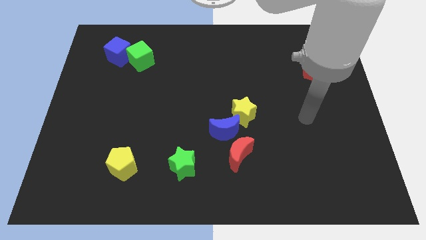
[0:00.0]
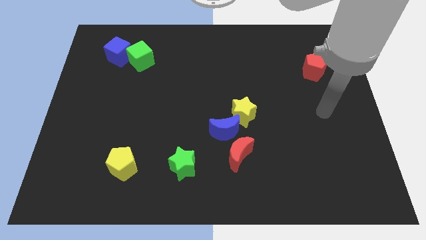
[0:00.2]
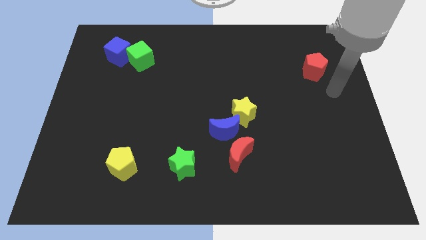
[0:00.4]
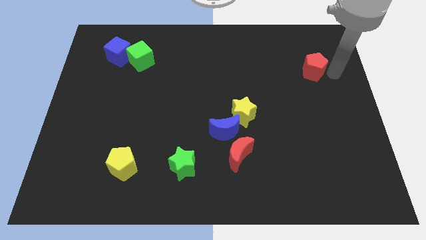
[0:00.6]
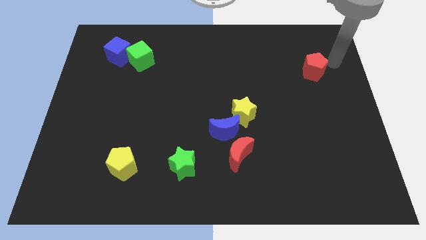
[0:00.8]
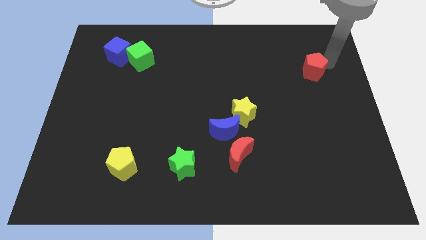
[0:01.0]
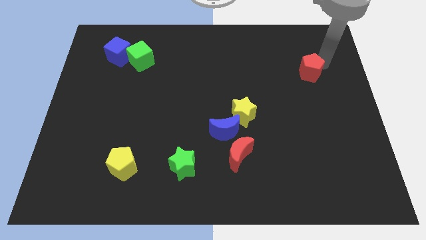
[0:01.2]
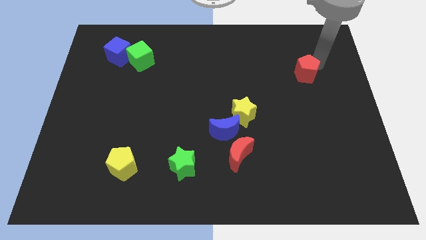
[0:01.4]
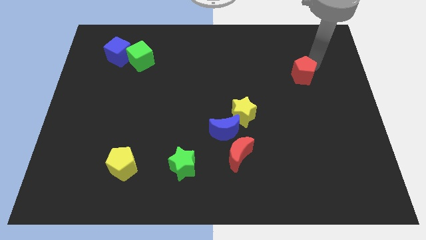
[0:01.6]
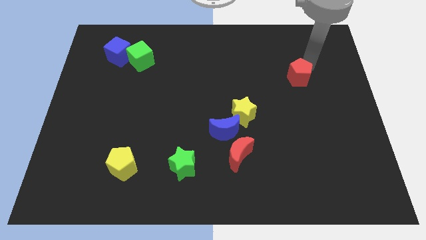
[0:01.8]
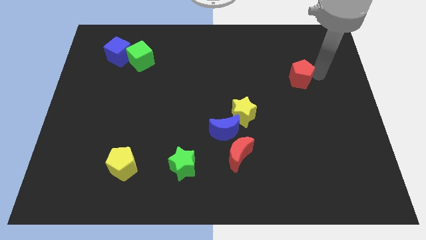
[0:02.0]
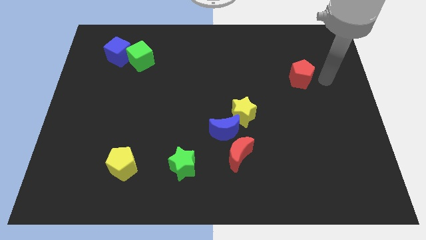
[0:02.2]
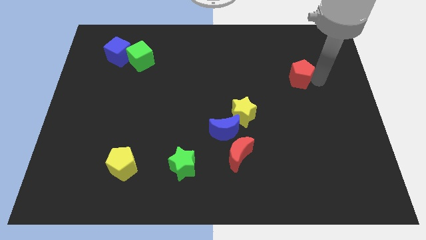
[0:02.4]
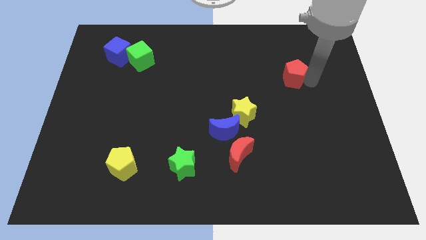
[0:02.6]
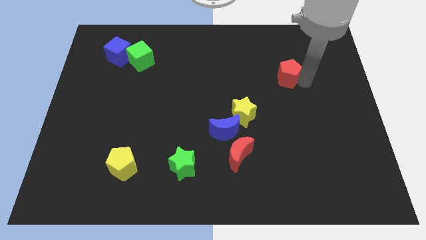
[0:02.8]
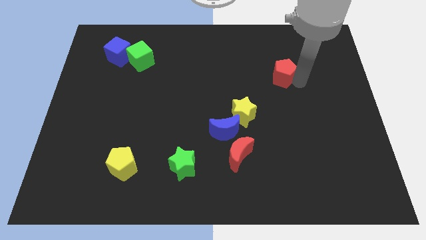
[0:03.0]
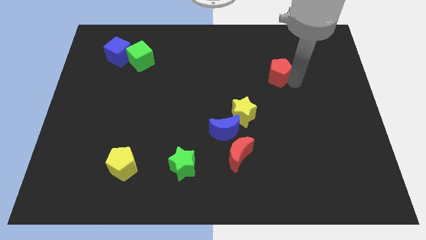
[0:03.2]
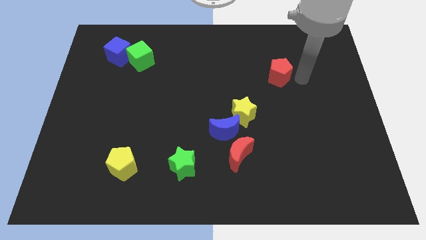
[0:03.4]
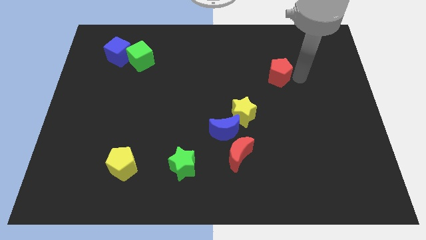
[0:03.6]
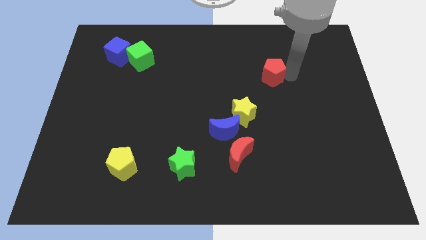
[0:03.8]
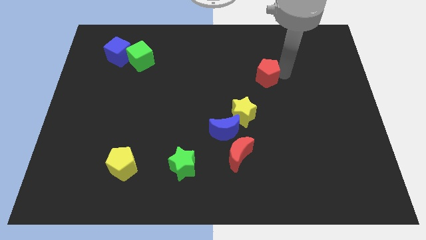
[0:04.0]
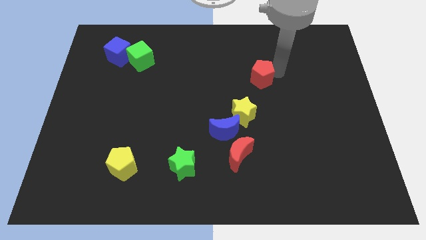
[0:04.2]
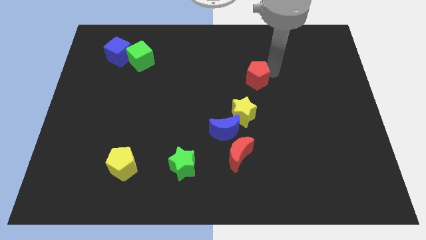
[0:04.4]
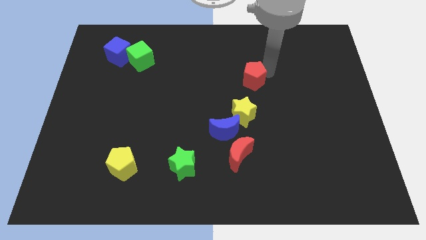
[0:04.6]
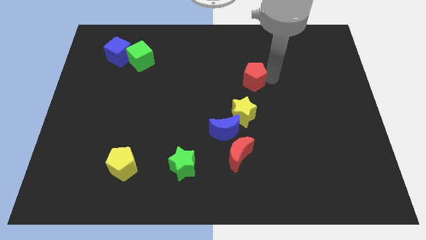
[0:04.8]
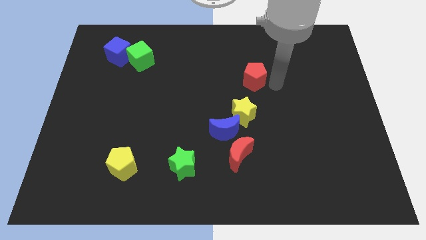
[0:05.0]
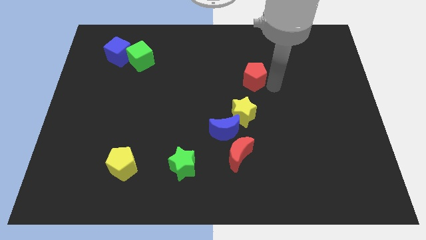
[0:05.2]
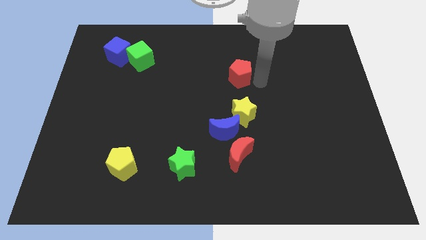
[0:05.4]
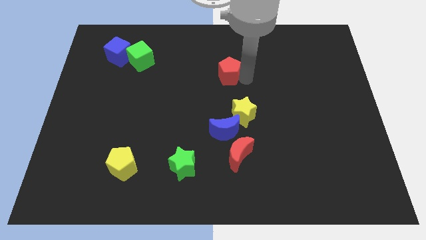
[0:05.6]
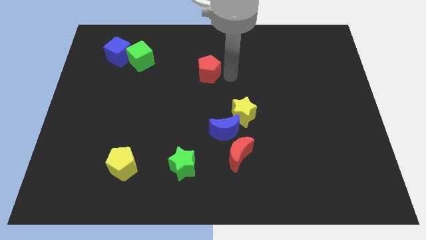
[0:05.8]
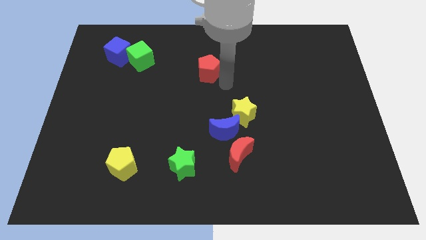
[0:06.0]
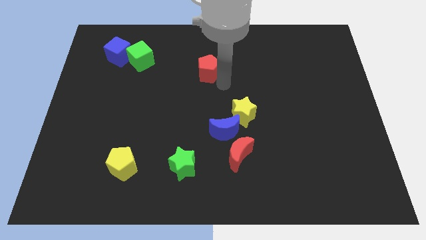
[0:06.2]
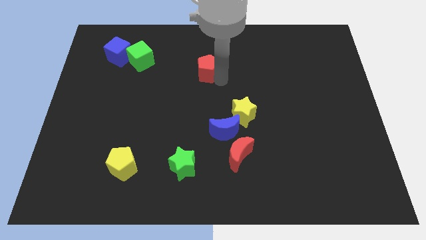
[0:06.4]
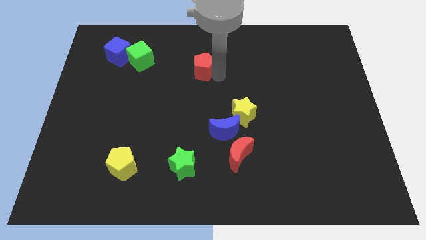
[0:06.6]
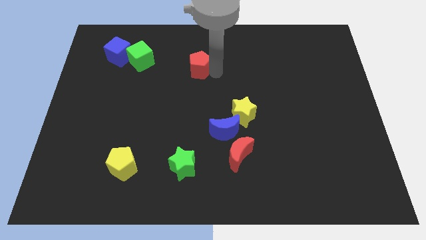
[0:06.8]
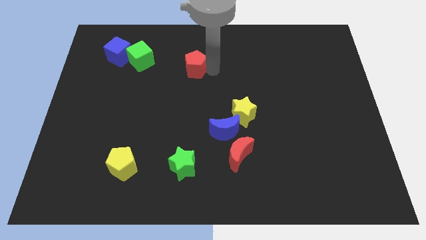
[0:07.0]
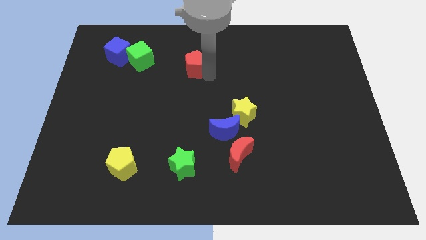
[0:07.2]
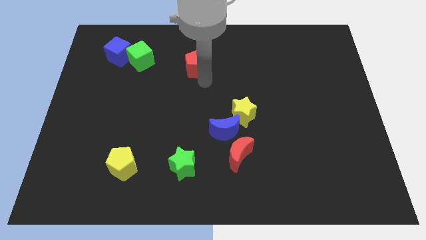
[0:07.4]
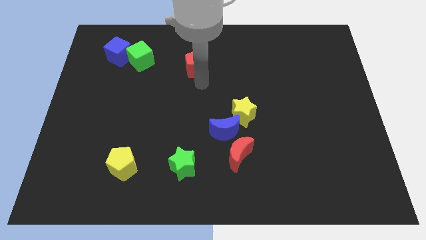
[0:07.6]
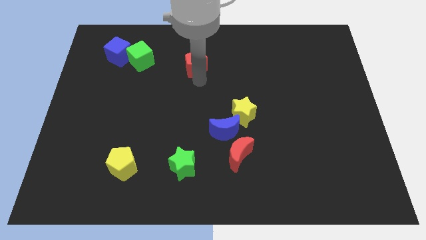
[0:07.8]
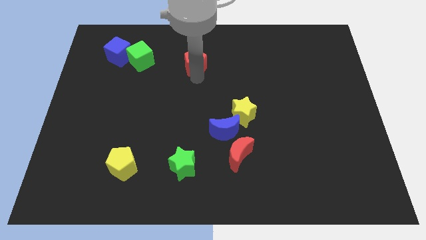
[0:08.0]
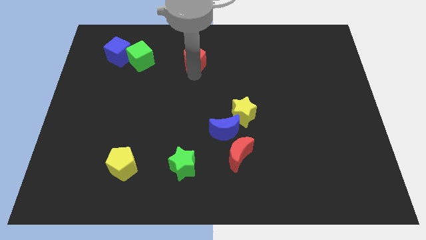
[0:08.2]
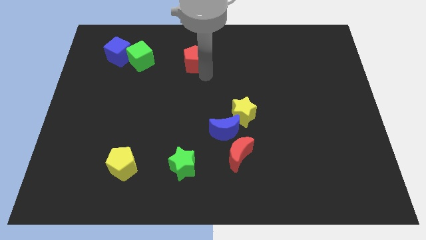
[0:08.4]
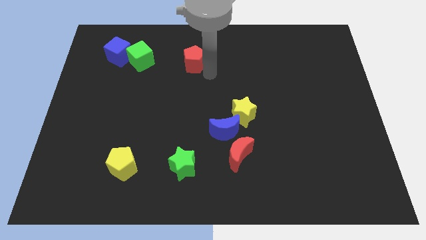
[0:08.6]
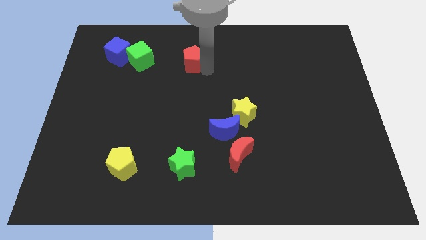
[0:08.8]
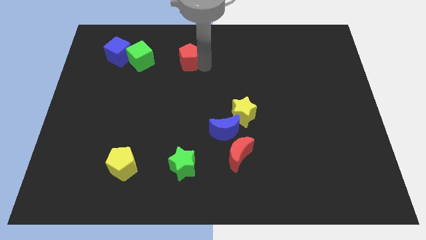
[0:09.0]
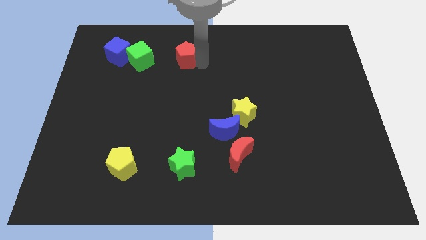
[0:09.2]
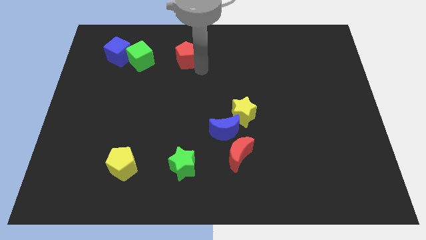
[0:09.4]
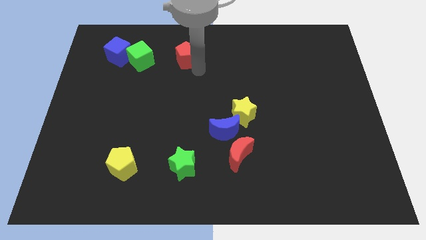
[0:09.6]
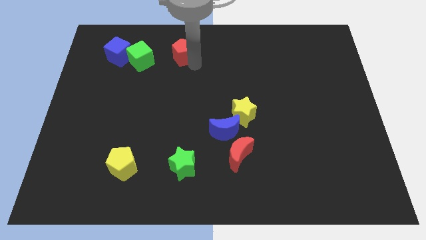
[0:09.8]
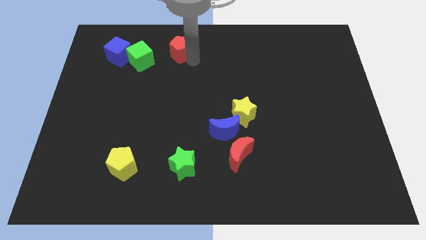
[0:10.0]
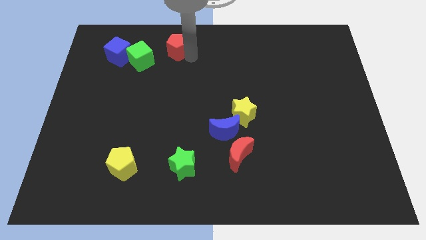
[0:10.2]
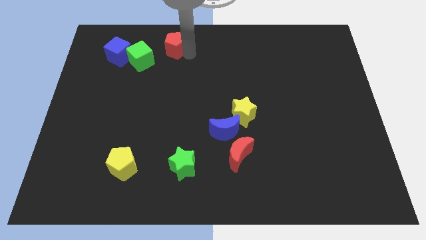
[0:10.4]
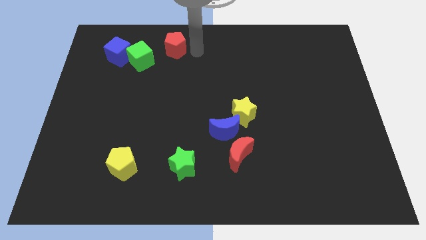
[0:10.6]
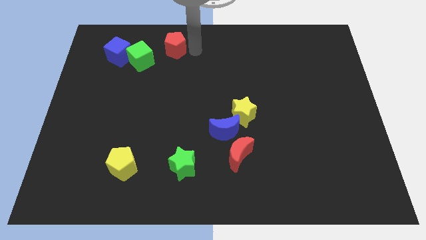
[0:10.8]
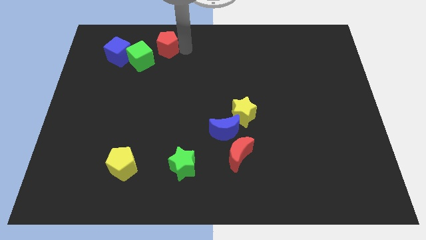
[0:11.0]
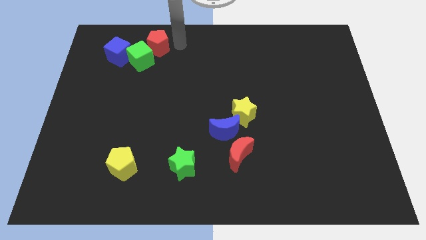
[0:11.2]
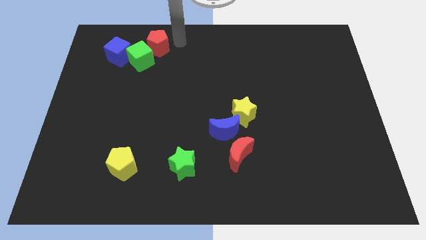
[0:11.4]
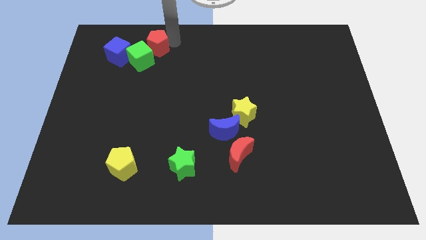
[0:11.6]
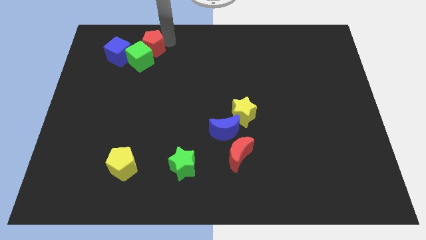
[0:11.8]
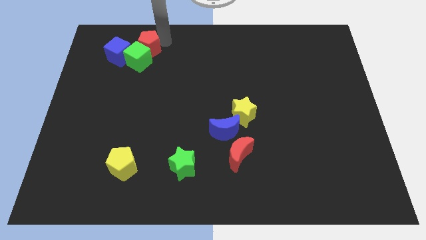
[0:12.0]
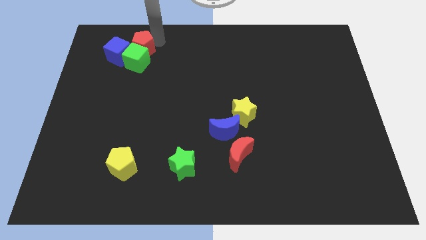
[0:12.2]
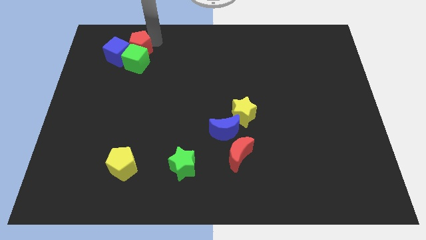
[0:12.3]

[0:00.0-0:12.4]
move the red pentagon towards the blue cube

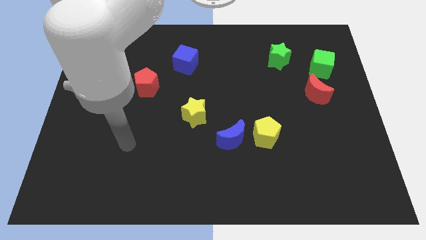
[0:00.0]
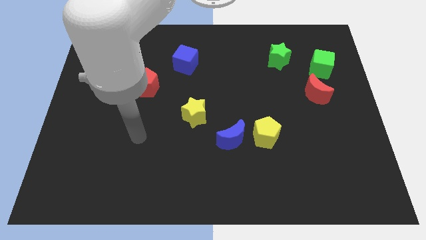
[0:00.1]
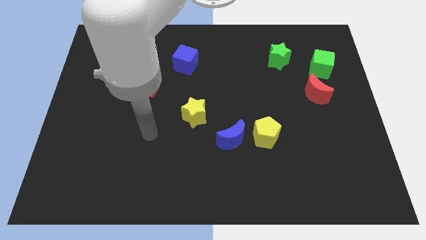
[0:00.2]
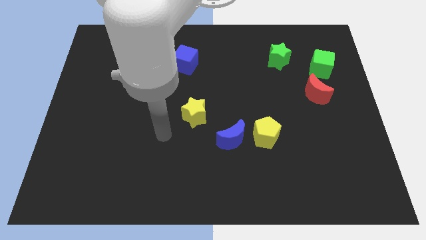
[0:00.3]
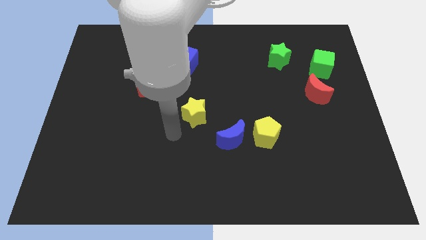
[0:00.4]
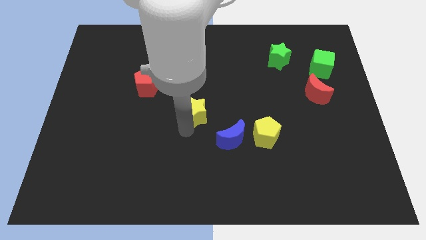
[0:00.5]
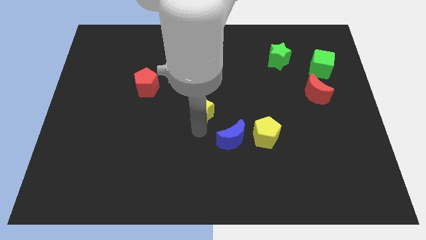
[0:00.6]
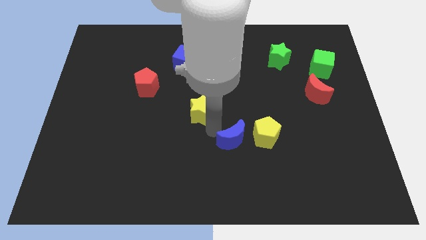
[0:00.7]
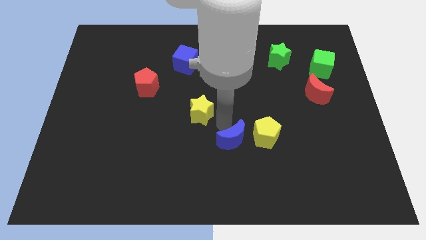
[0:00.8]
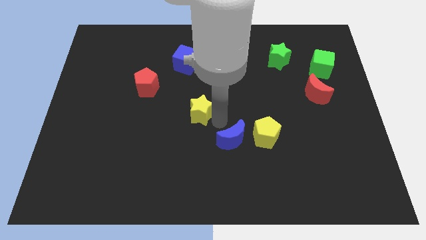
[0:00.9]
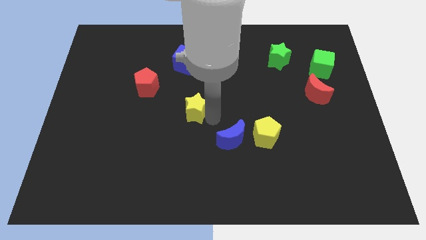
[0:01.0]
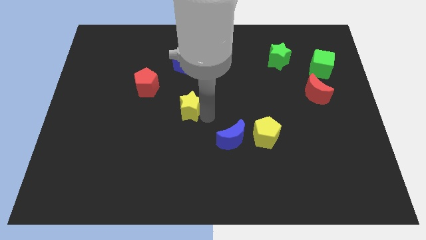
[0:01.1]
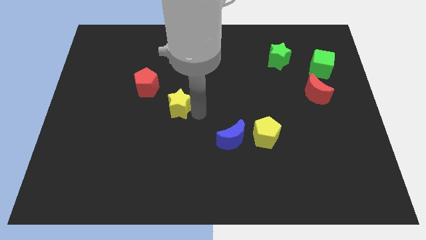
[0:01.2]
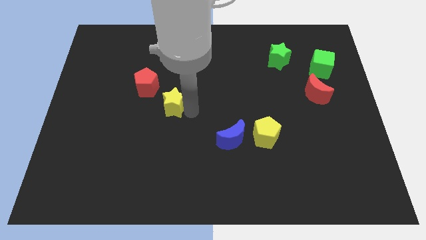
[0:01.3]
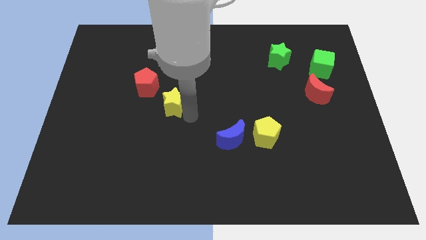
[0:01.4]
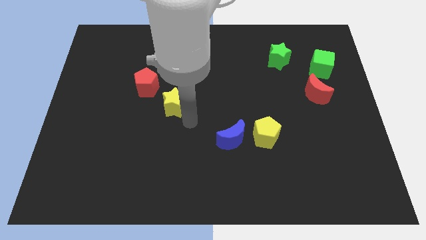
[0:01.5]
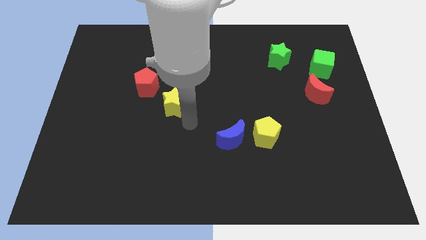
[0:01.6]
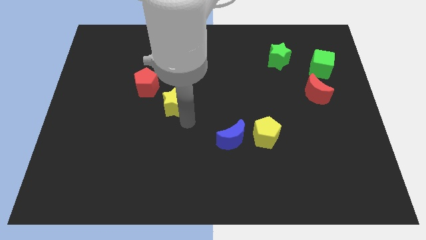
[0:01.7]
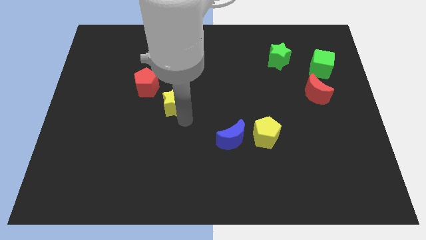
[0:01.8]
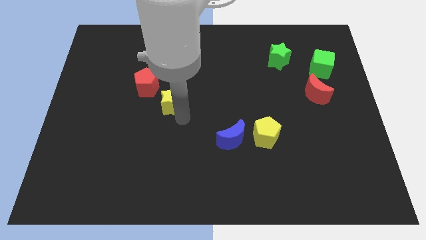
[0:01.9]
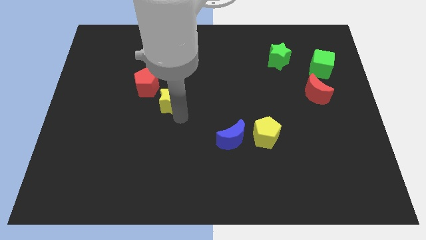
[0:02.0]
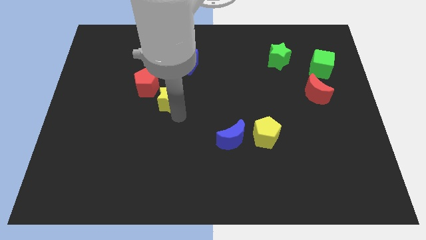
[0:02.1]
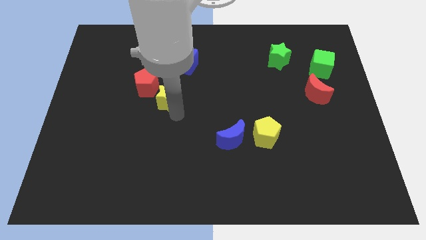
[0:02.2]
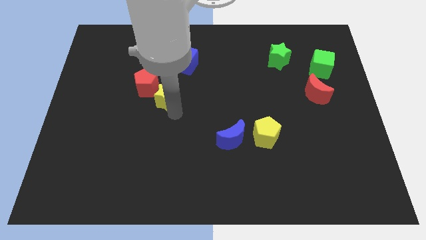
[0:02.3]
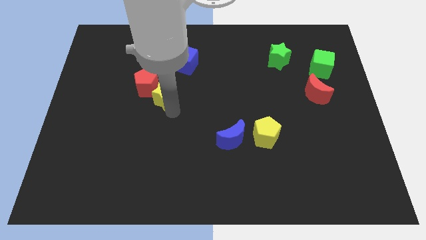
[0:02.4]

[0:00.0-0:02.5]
put the yellow star towards the red pentagon
